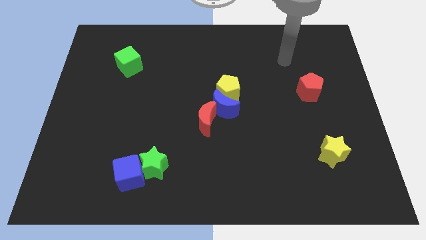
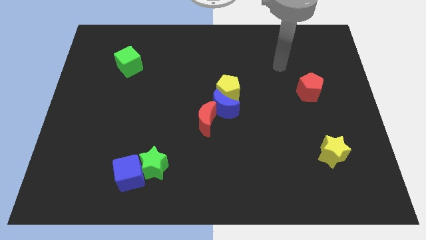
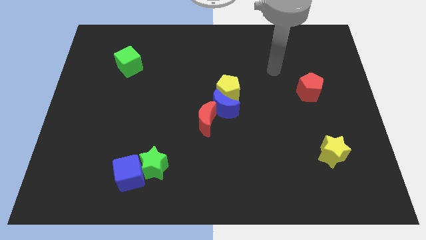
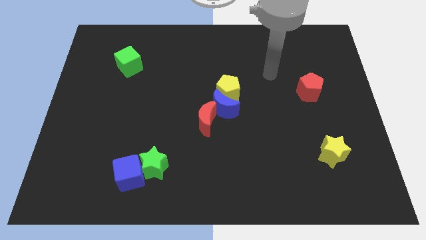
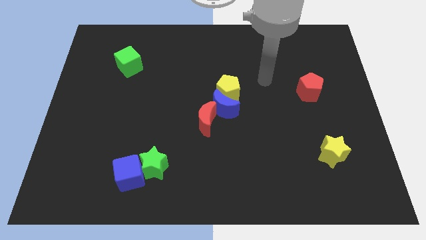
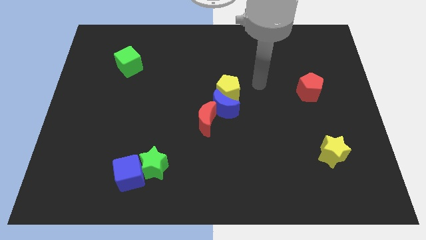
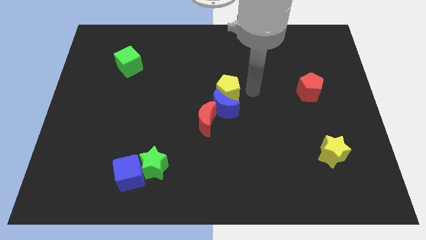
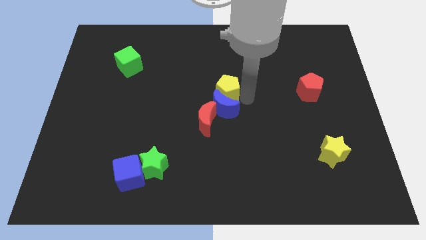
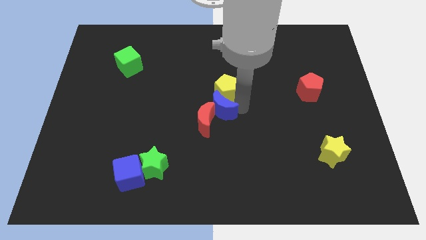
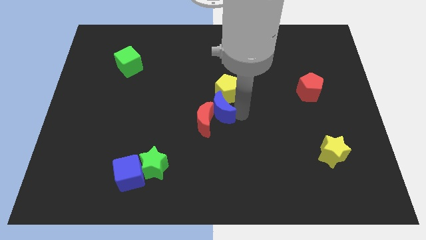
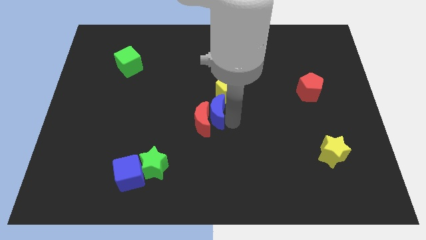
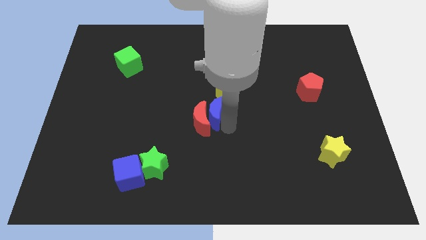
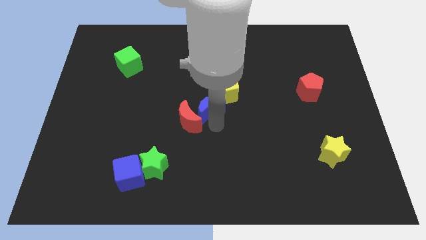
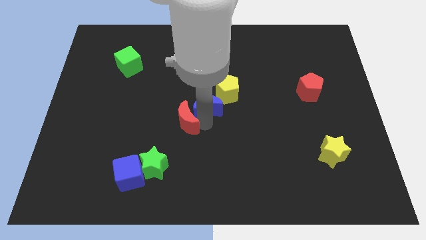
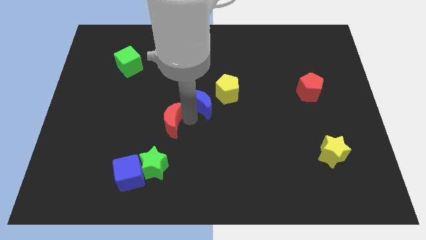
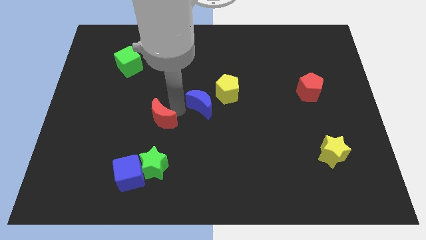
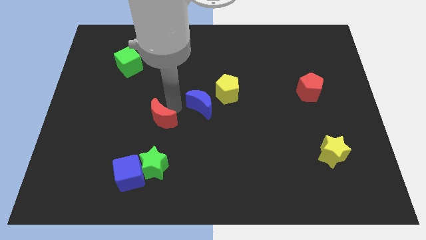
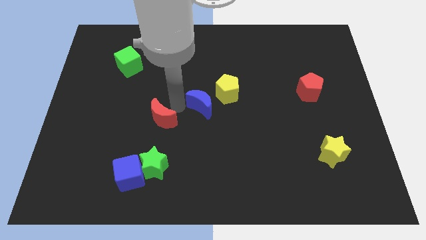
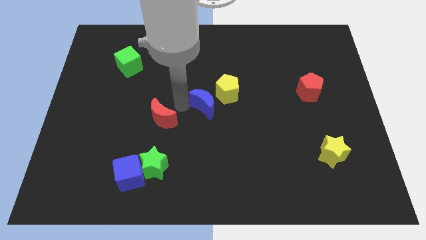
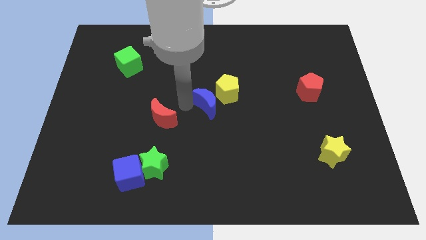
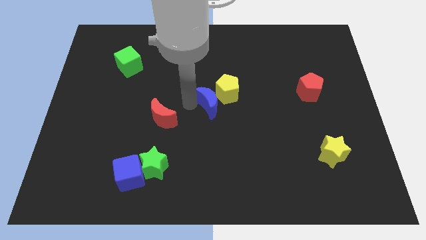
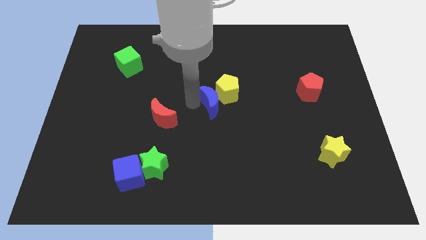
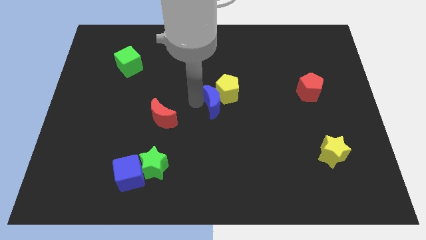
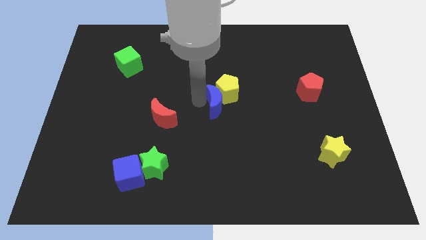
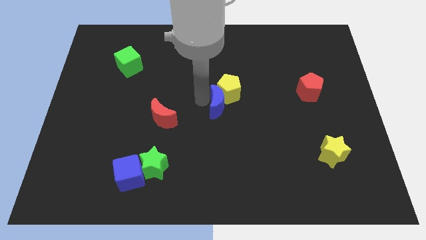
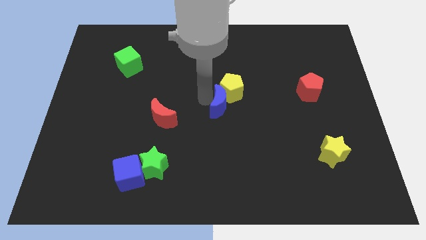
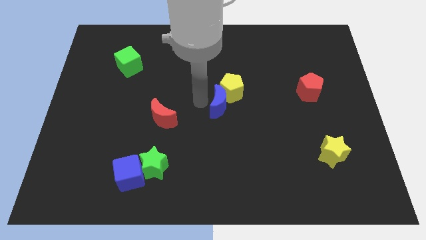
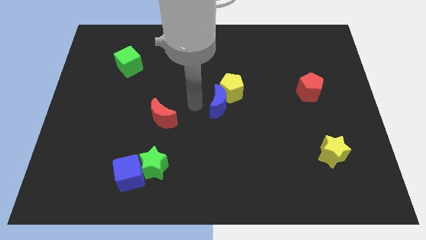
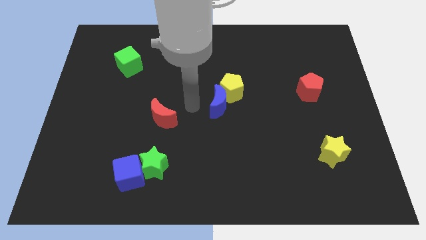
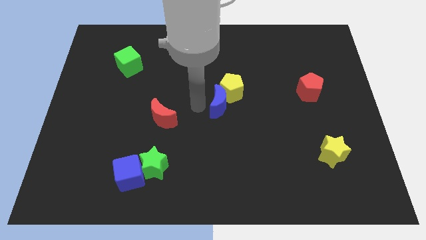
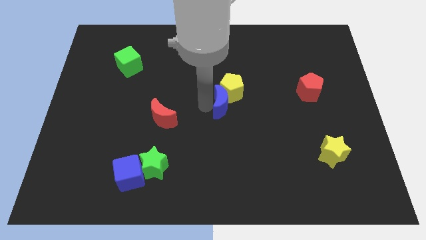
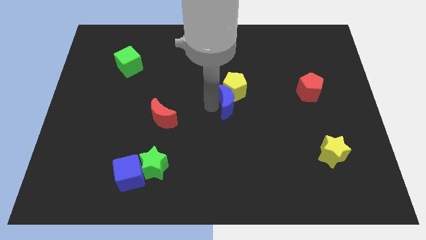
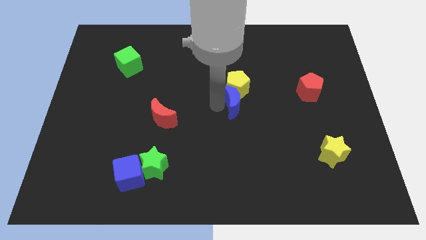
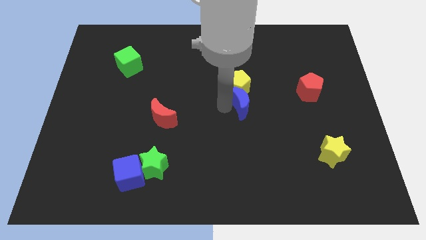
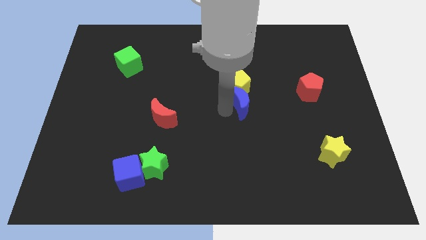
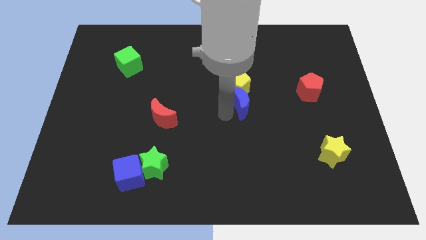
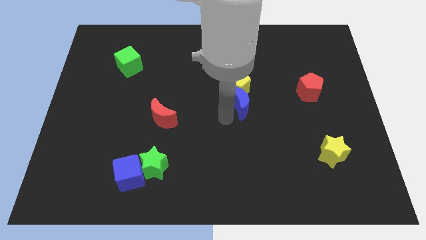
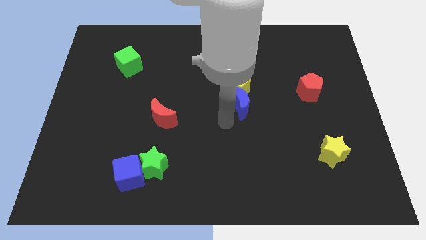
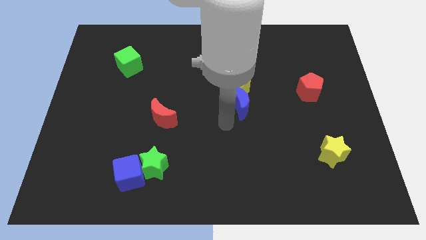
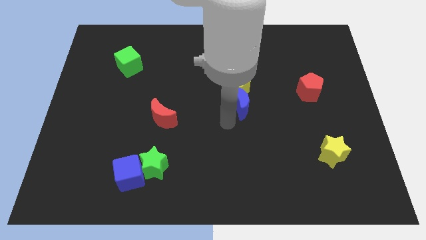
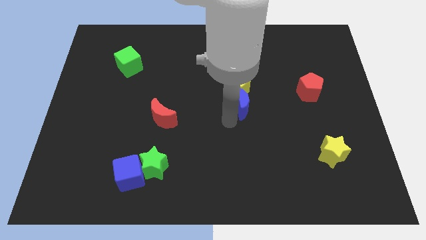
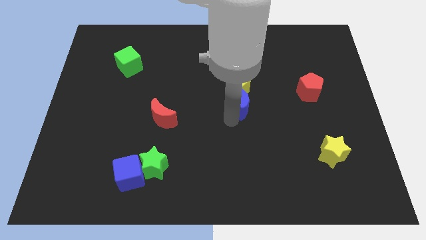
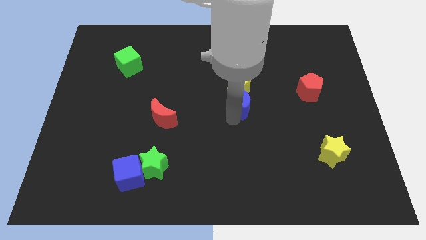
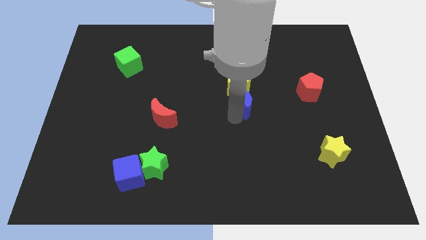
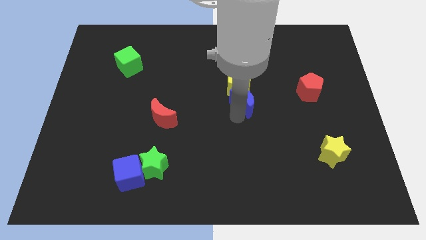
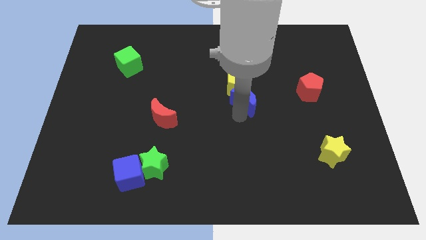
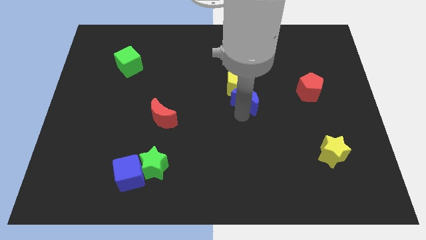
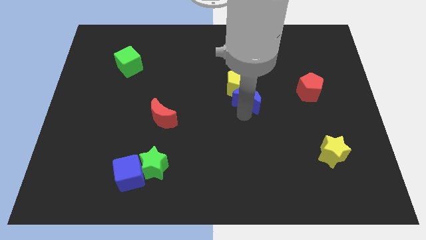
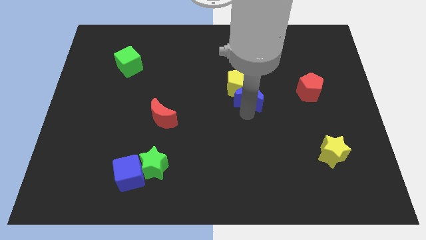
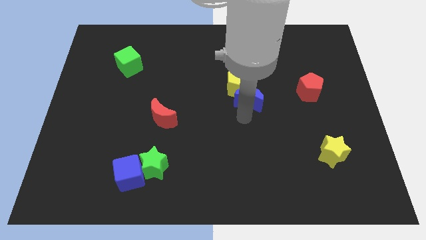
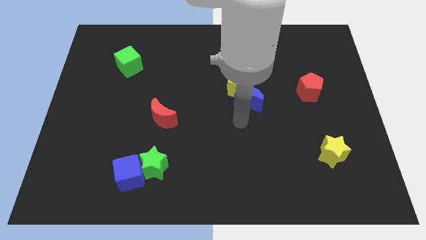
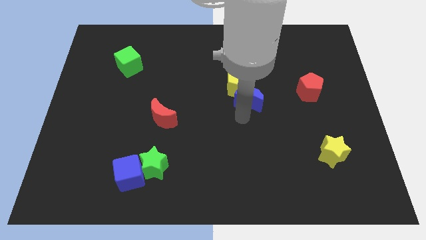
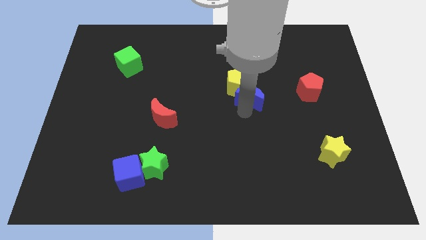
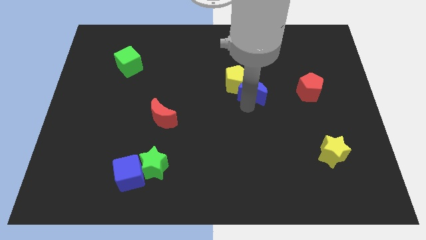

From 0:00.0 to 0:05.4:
slide the blue moon slightly up and to the right

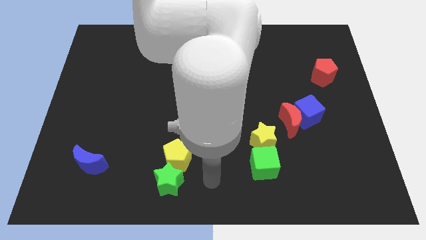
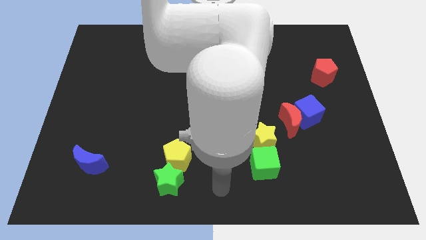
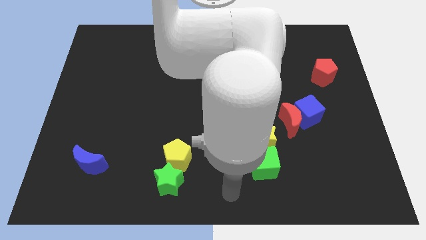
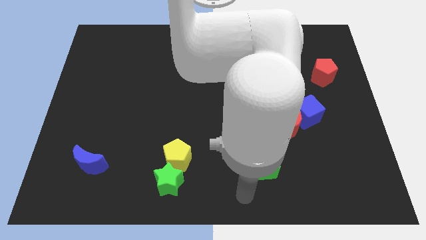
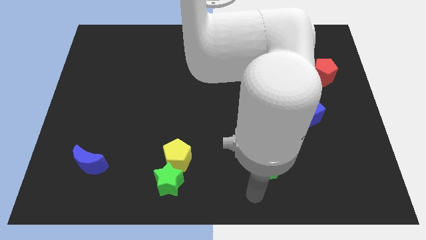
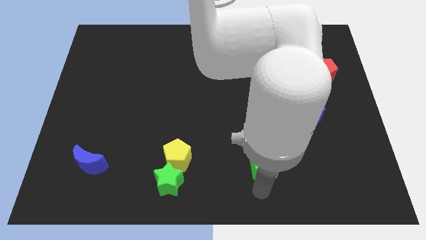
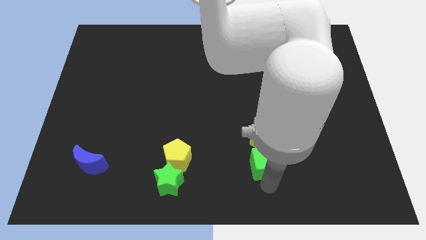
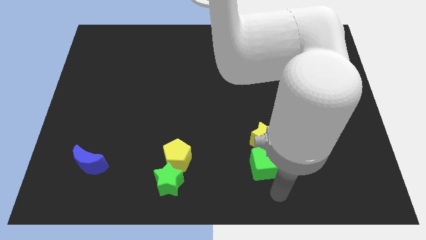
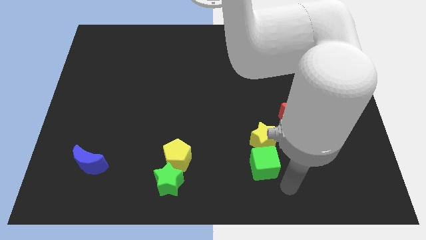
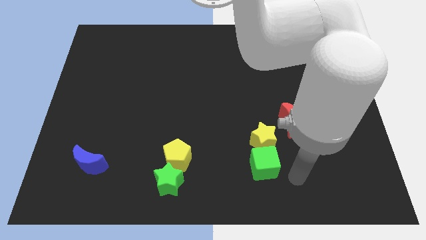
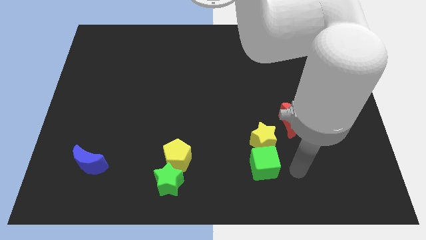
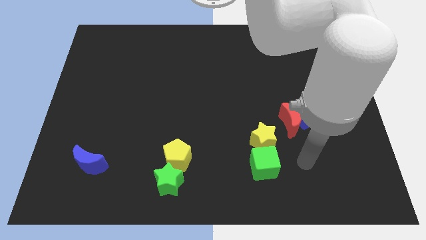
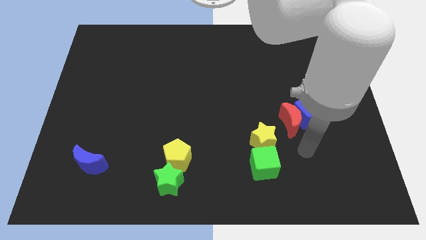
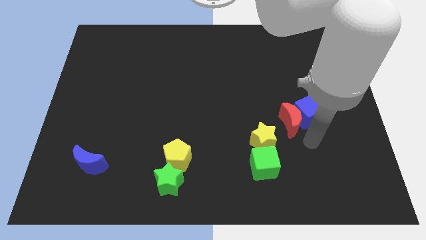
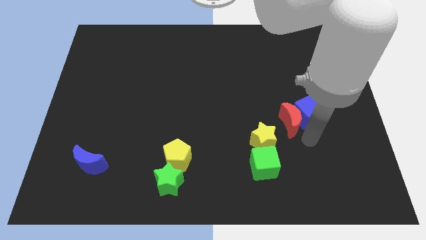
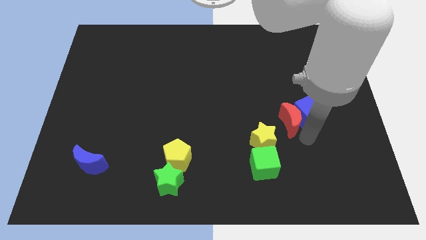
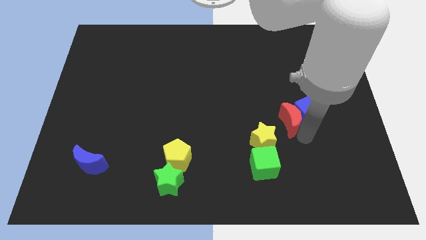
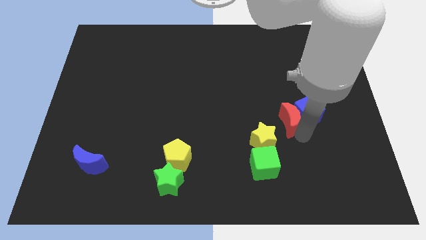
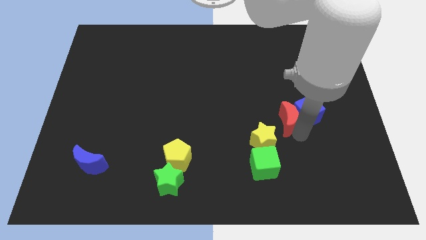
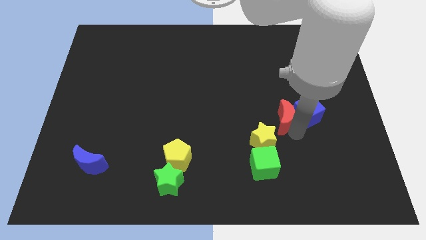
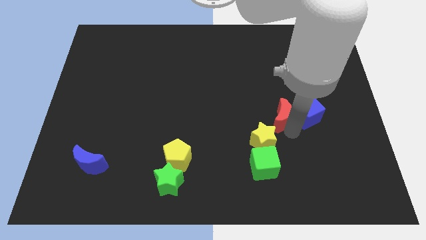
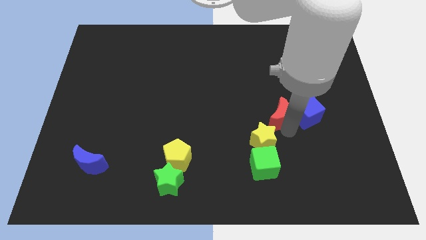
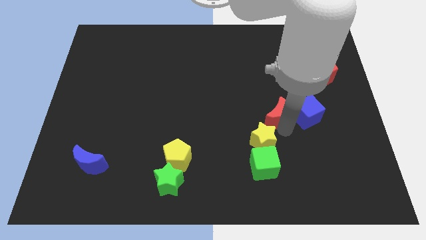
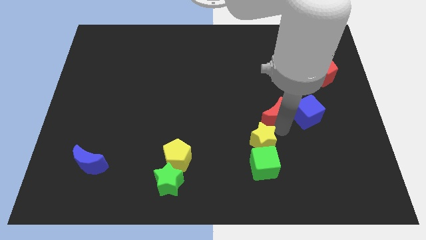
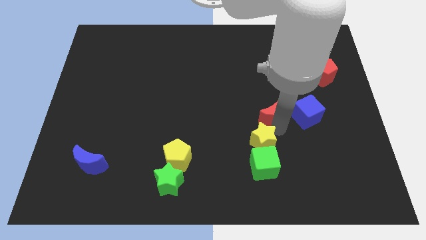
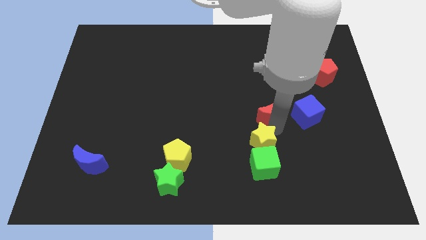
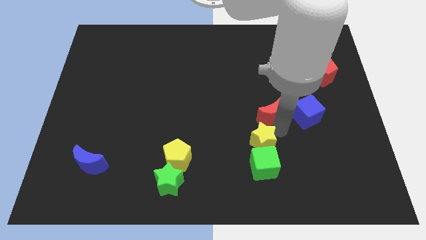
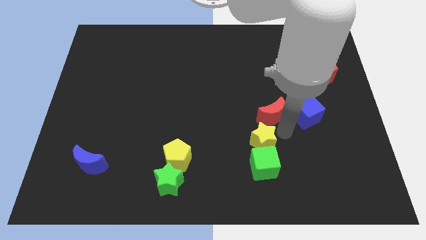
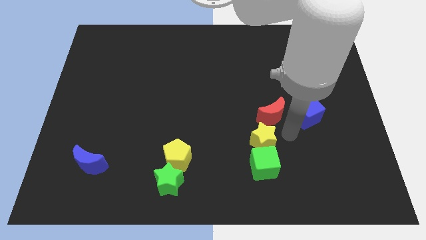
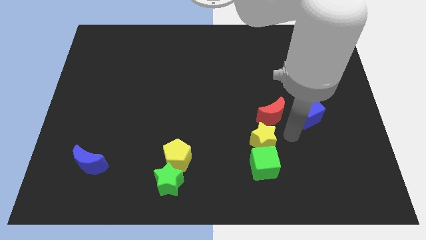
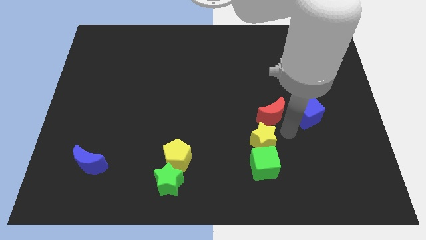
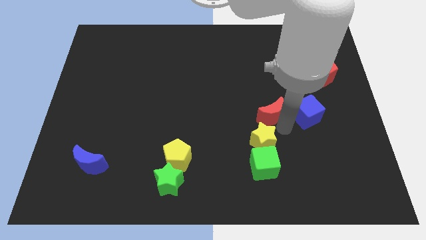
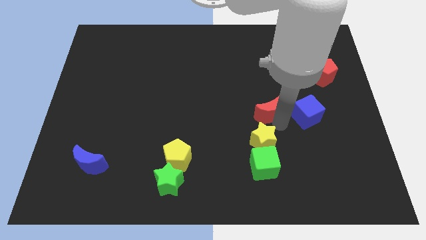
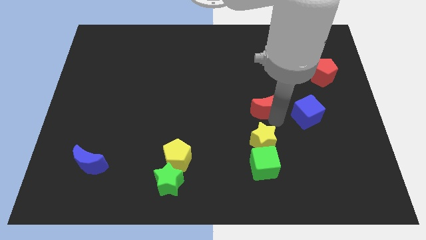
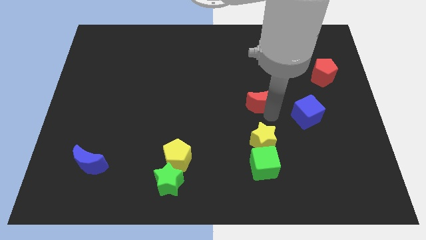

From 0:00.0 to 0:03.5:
slide the red moon slightly upwards and left
